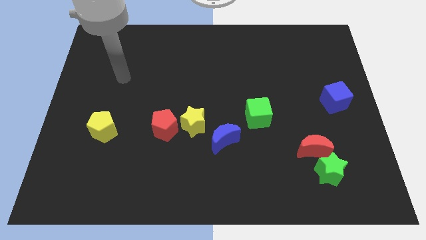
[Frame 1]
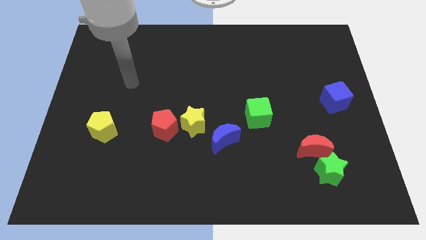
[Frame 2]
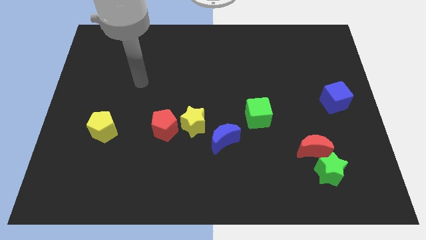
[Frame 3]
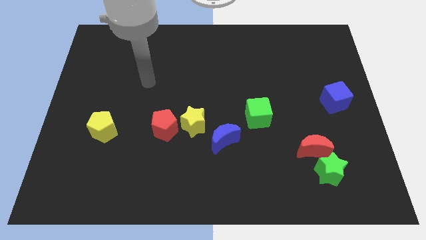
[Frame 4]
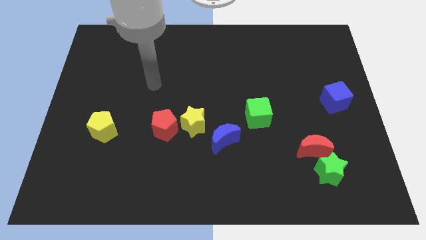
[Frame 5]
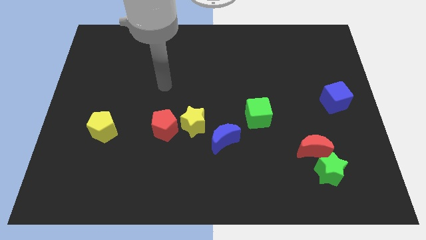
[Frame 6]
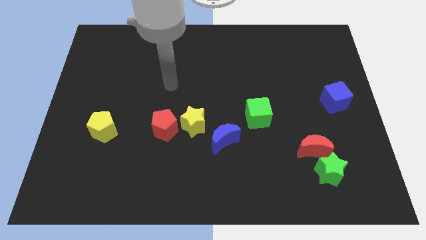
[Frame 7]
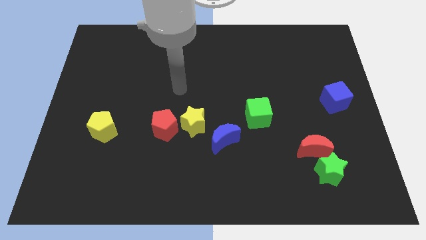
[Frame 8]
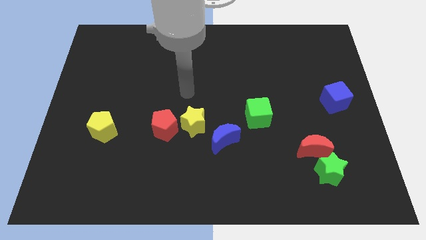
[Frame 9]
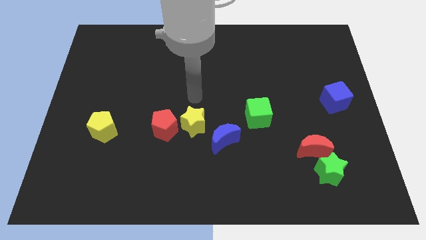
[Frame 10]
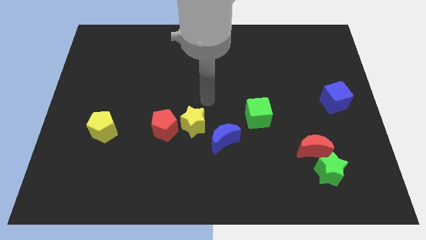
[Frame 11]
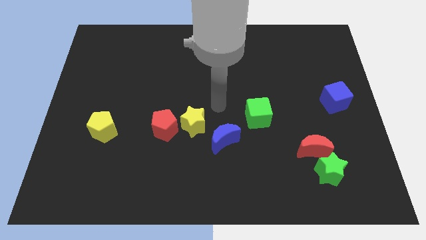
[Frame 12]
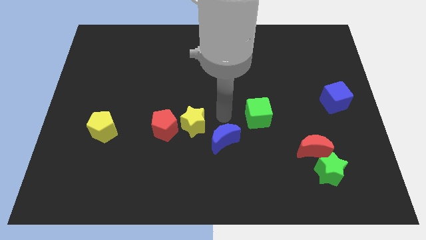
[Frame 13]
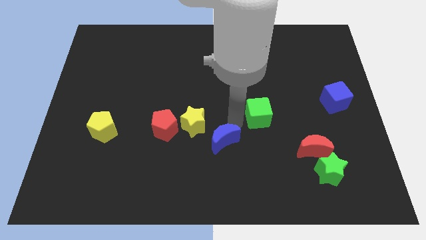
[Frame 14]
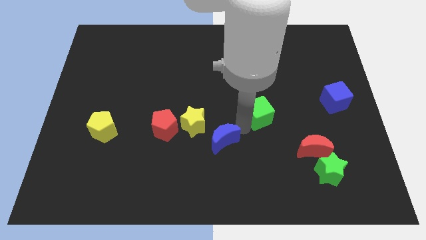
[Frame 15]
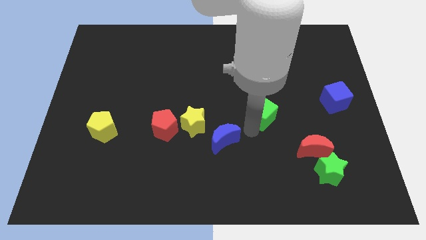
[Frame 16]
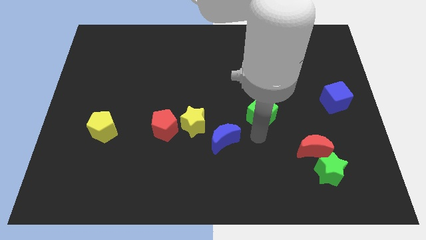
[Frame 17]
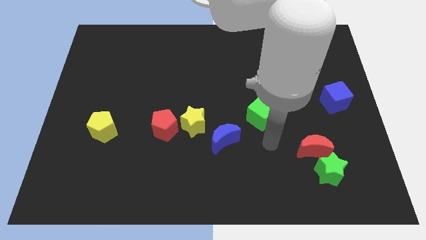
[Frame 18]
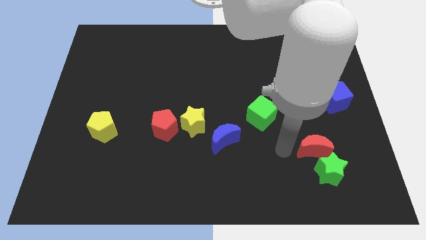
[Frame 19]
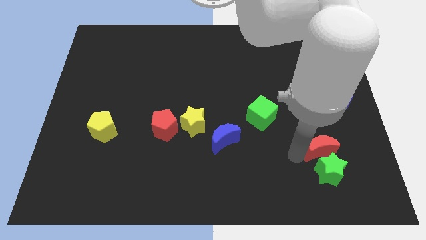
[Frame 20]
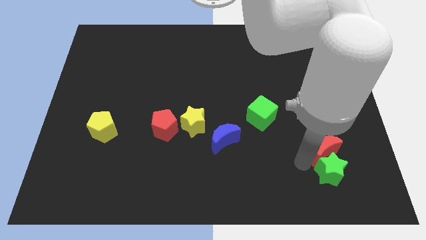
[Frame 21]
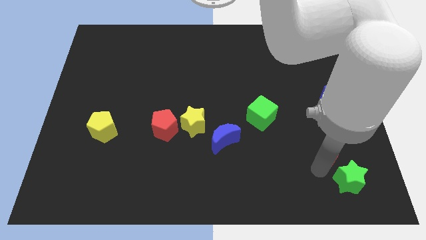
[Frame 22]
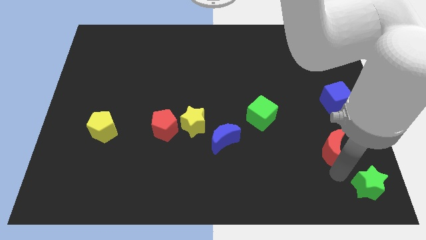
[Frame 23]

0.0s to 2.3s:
separate the red moon from the green star

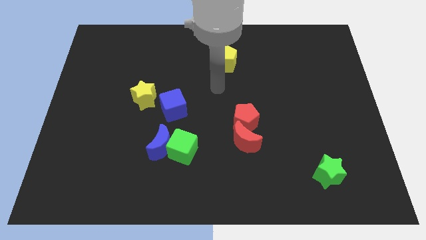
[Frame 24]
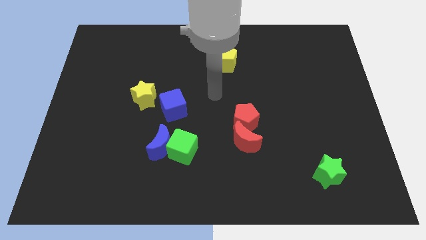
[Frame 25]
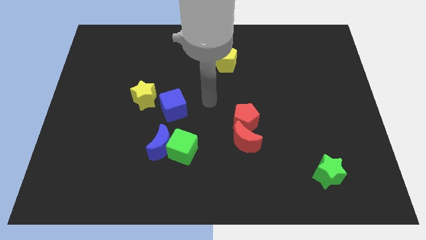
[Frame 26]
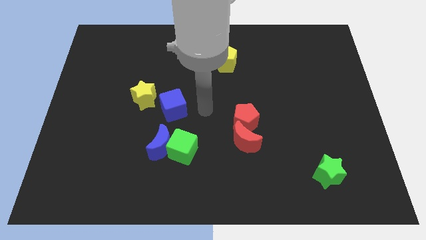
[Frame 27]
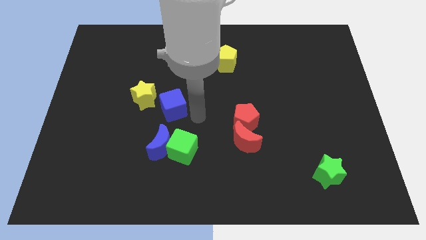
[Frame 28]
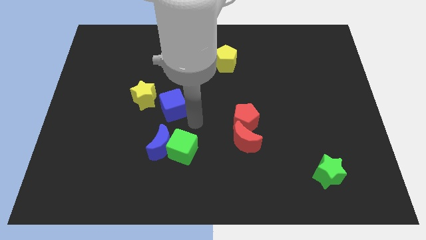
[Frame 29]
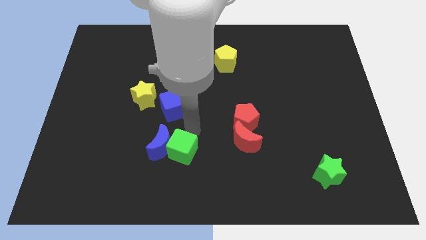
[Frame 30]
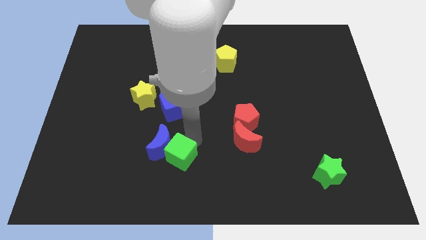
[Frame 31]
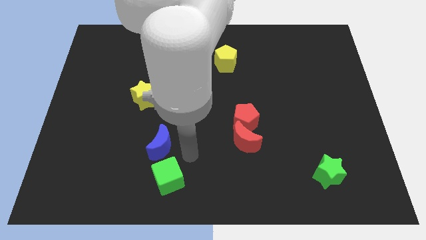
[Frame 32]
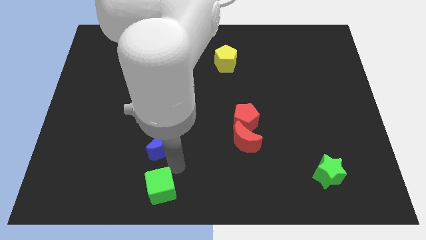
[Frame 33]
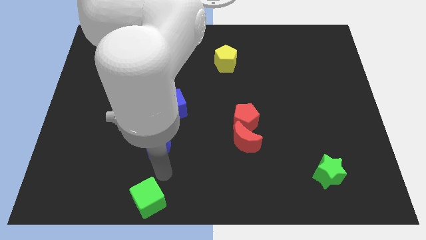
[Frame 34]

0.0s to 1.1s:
separate the blue moon from the green cube

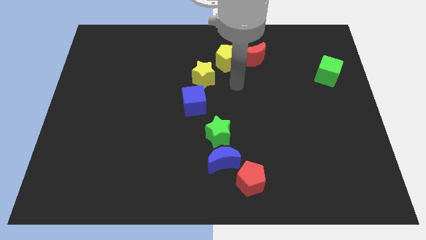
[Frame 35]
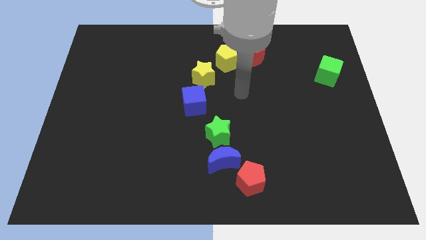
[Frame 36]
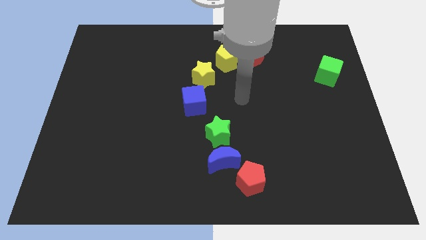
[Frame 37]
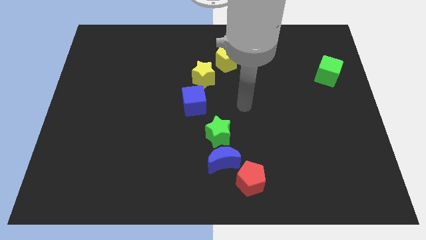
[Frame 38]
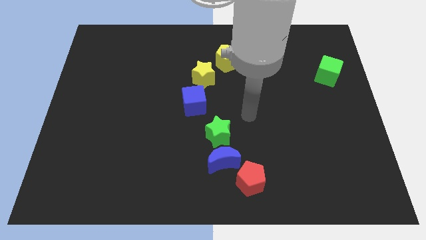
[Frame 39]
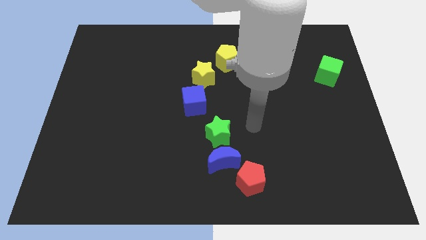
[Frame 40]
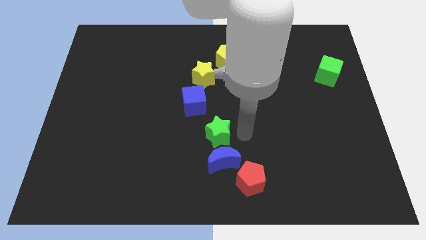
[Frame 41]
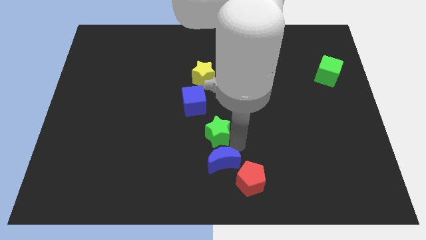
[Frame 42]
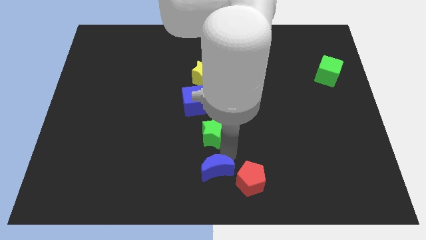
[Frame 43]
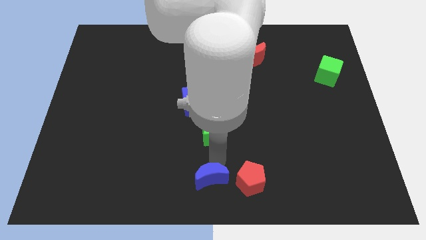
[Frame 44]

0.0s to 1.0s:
move the green star away from the blue moon

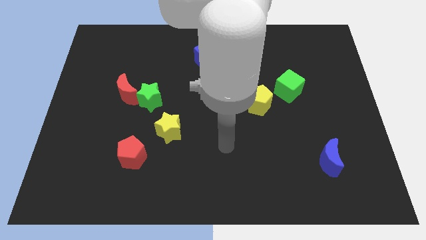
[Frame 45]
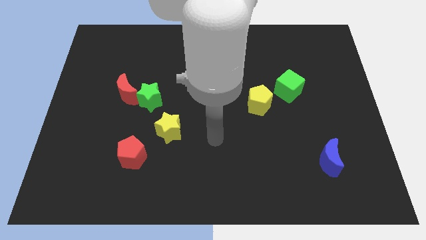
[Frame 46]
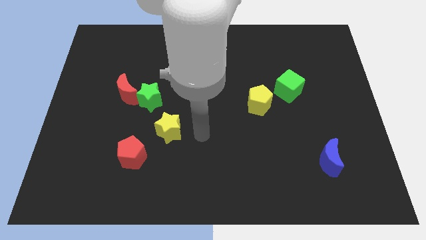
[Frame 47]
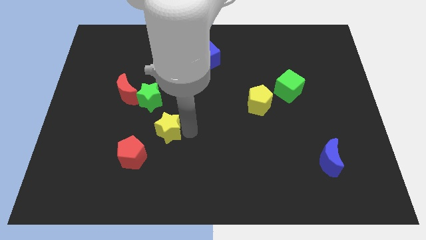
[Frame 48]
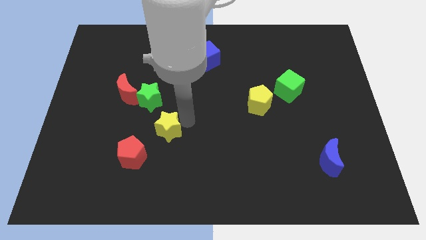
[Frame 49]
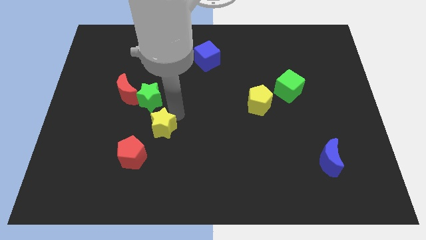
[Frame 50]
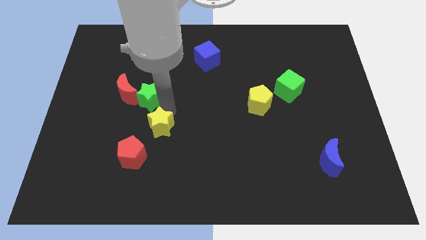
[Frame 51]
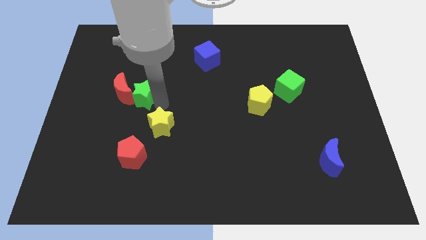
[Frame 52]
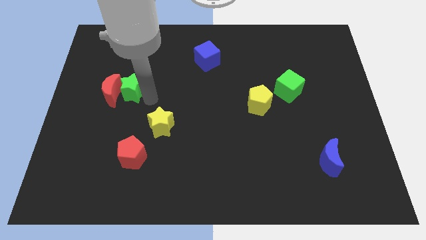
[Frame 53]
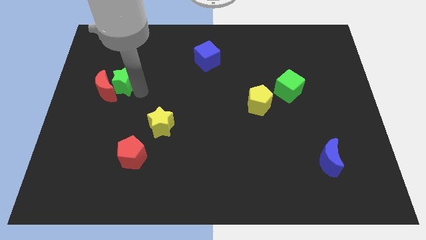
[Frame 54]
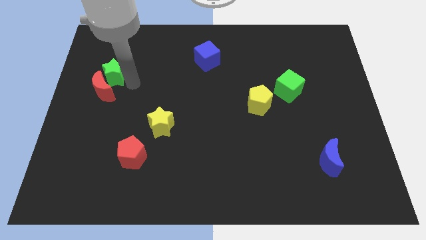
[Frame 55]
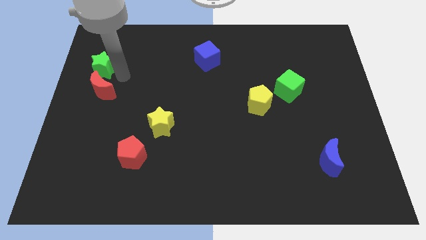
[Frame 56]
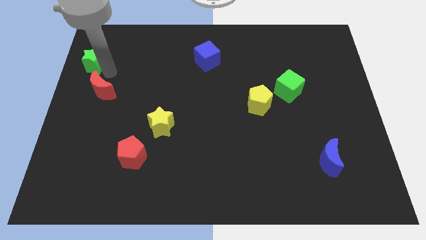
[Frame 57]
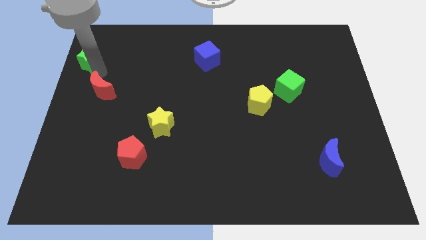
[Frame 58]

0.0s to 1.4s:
move the red moon away from the green star

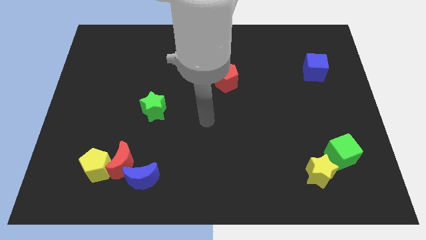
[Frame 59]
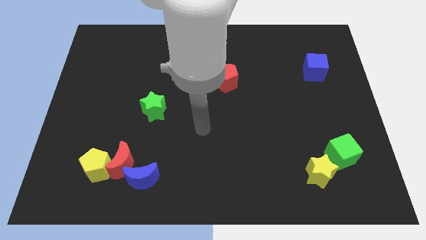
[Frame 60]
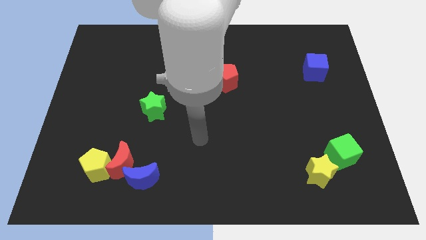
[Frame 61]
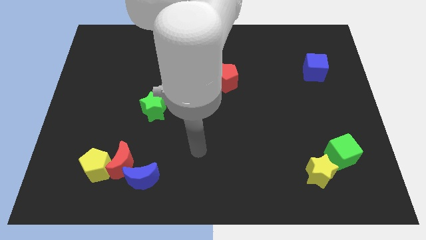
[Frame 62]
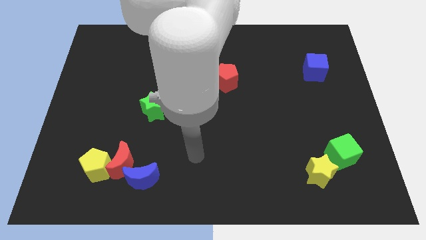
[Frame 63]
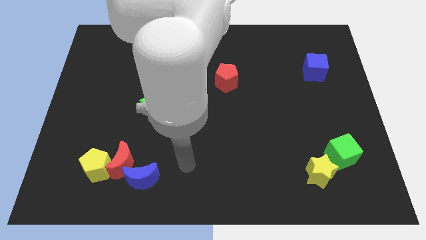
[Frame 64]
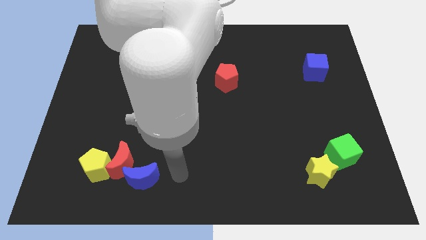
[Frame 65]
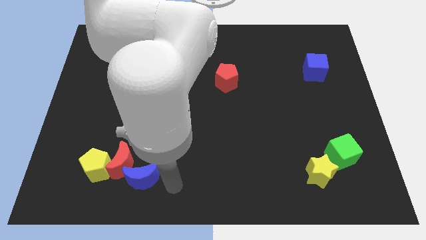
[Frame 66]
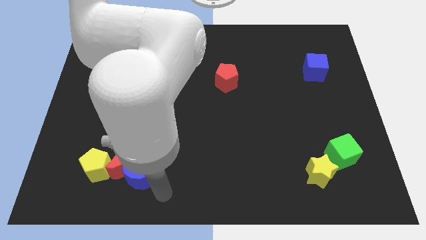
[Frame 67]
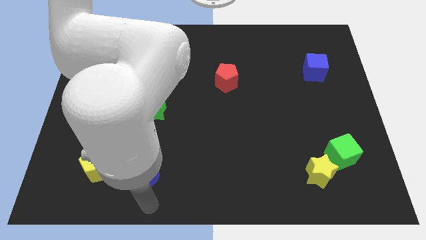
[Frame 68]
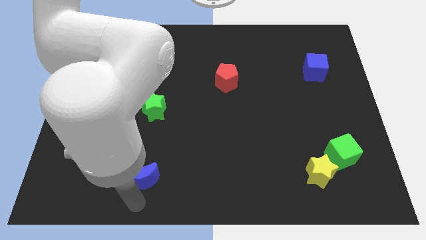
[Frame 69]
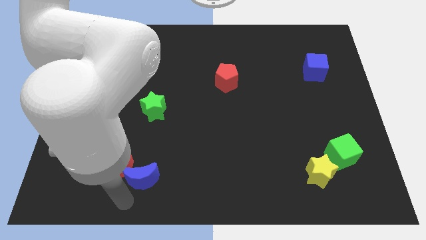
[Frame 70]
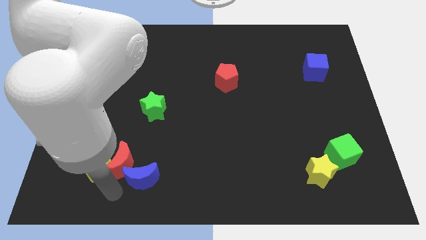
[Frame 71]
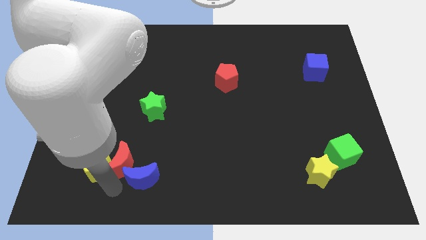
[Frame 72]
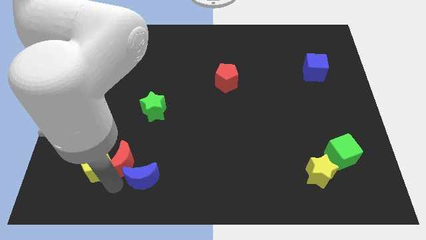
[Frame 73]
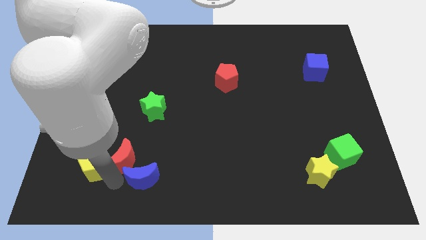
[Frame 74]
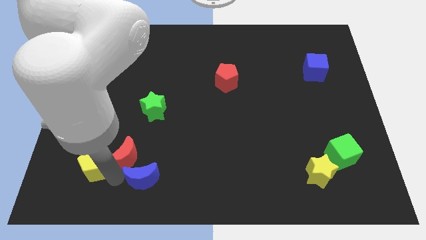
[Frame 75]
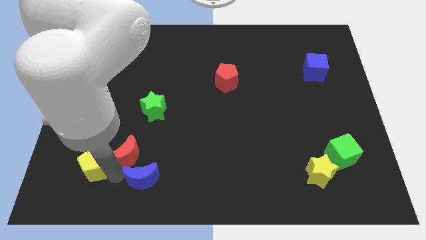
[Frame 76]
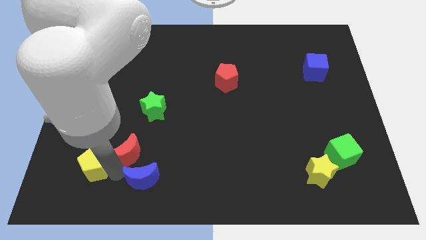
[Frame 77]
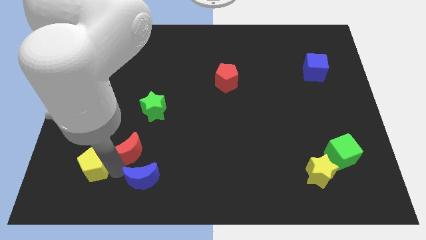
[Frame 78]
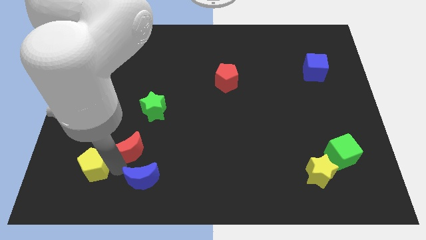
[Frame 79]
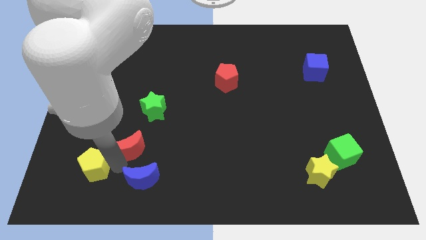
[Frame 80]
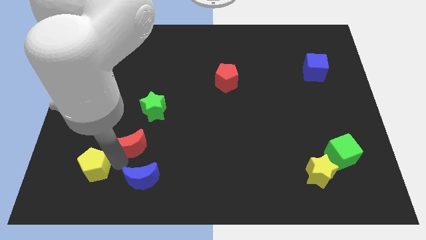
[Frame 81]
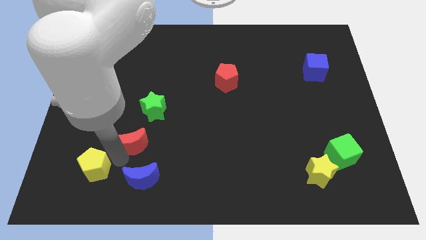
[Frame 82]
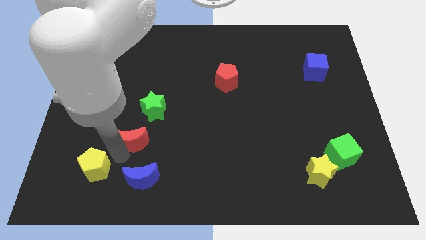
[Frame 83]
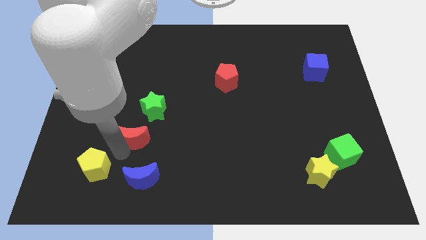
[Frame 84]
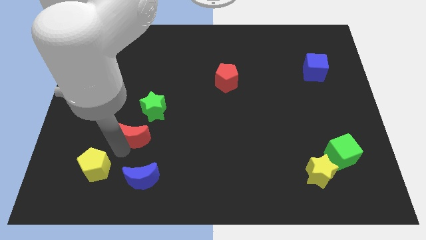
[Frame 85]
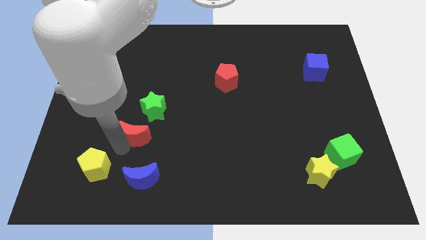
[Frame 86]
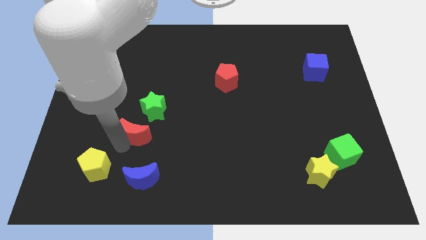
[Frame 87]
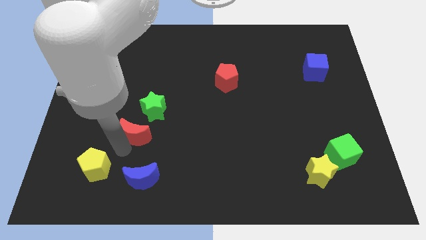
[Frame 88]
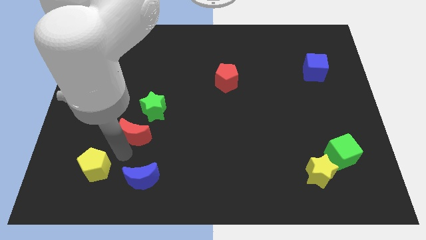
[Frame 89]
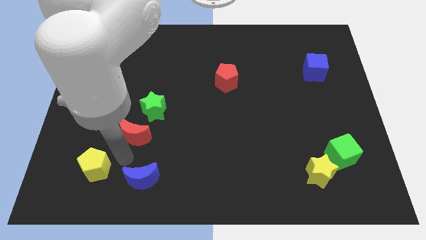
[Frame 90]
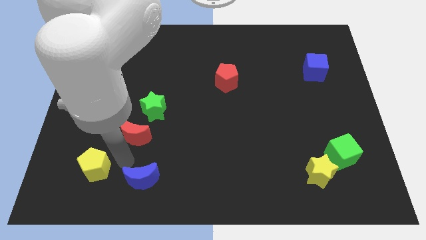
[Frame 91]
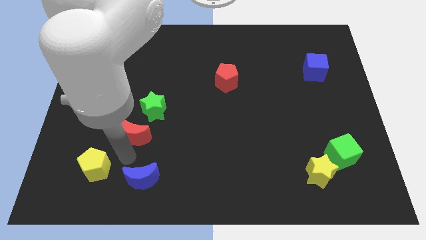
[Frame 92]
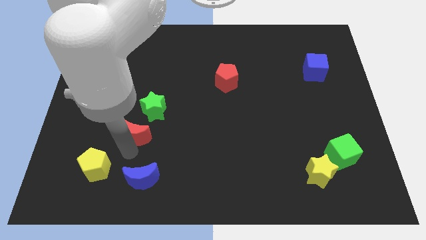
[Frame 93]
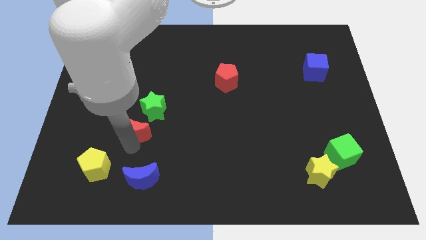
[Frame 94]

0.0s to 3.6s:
separate the red moon from the yellow pentagon and blue moon
